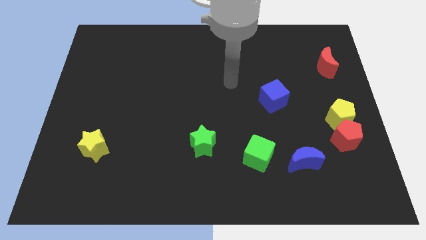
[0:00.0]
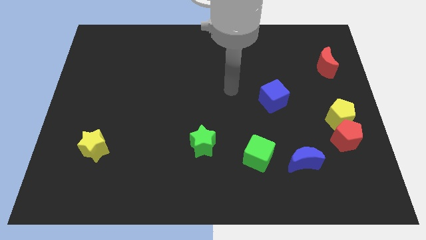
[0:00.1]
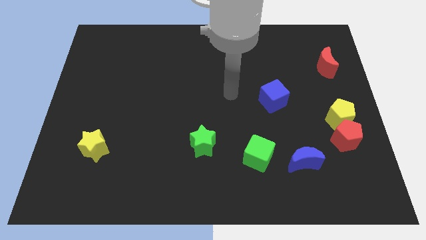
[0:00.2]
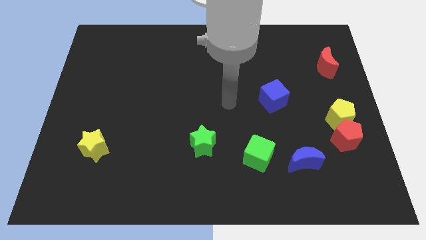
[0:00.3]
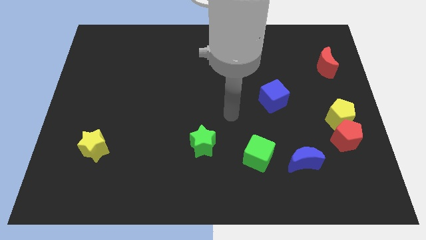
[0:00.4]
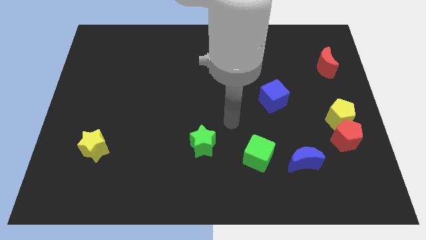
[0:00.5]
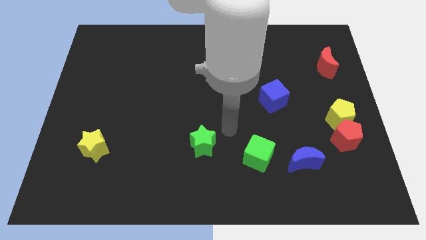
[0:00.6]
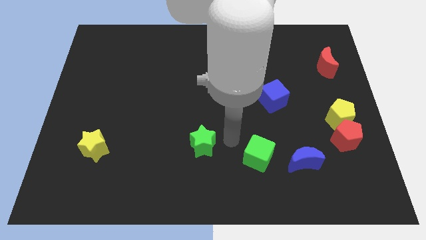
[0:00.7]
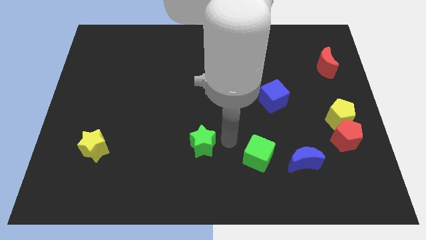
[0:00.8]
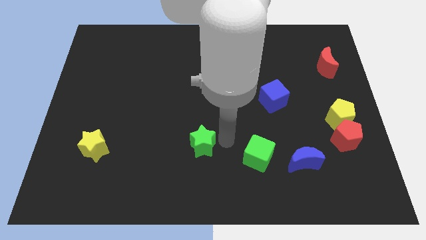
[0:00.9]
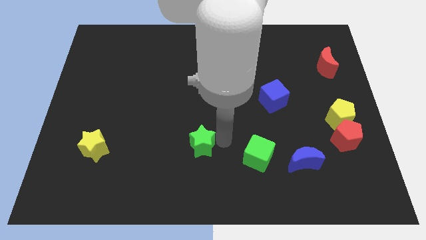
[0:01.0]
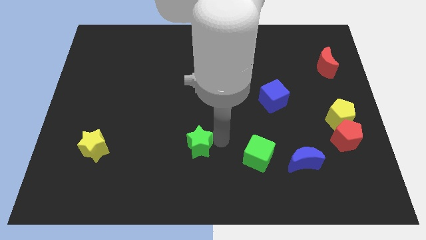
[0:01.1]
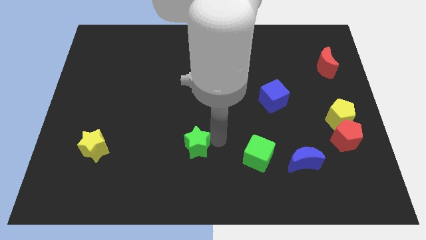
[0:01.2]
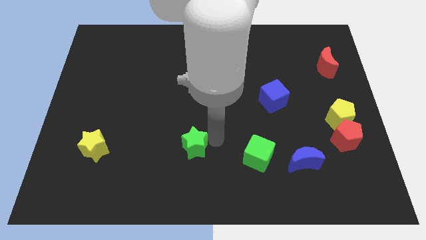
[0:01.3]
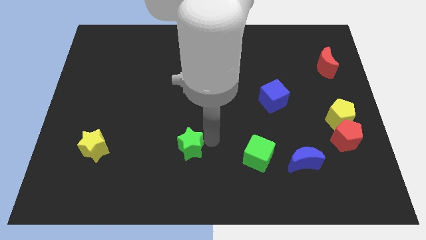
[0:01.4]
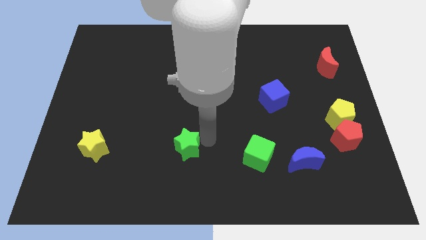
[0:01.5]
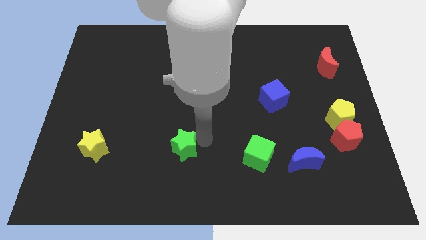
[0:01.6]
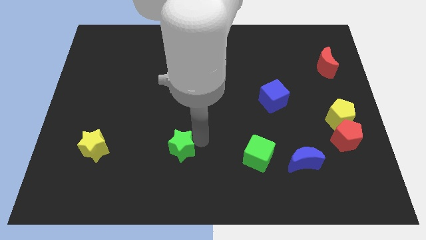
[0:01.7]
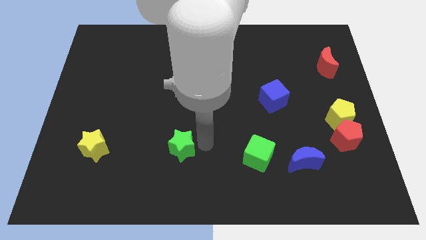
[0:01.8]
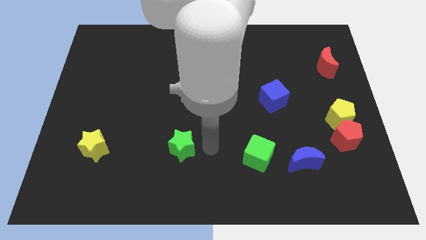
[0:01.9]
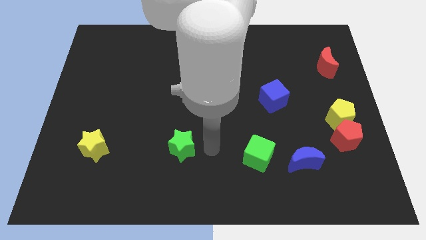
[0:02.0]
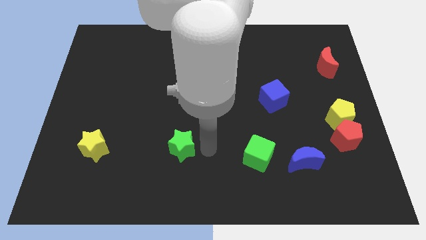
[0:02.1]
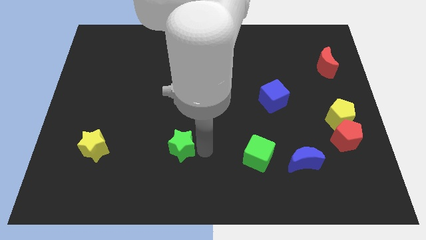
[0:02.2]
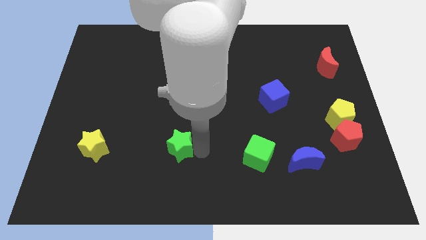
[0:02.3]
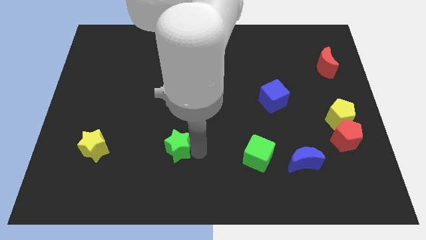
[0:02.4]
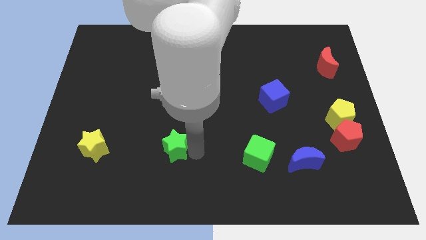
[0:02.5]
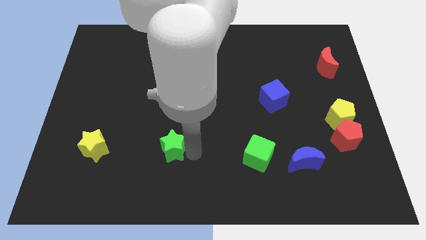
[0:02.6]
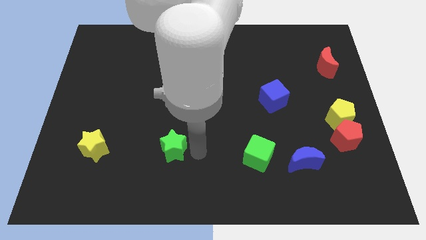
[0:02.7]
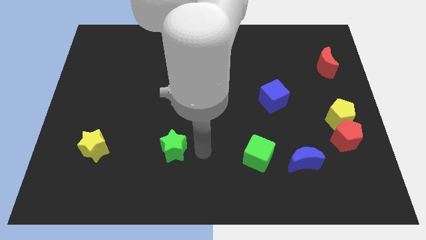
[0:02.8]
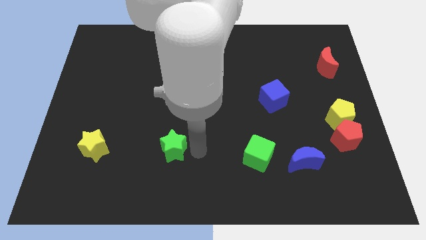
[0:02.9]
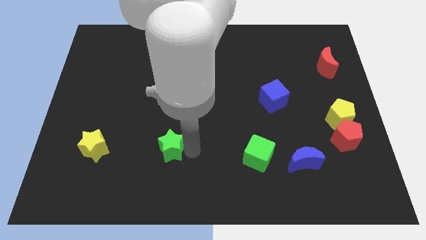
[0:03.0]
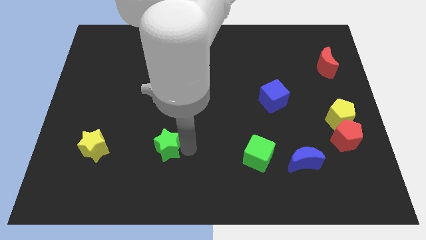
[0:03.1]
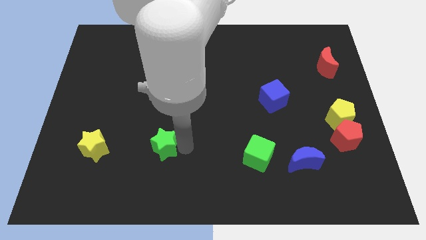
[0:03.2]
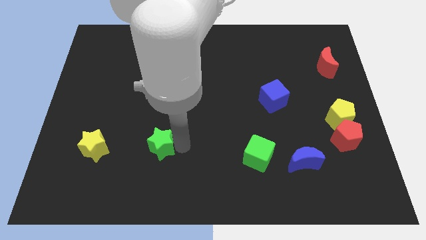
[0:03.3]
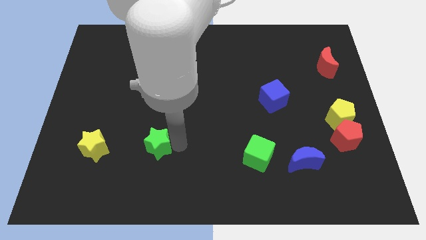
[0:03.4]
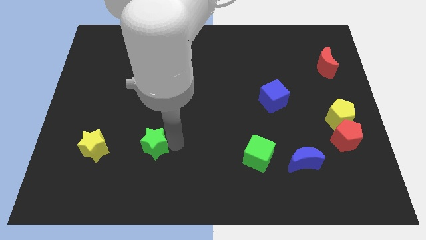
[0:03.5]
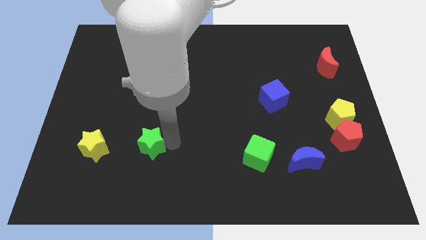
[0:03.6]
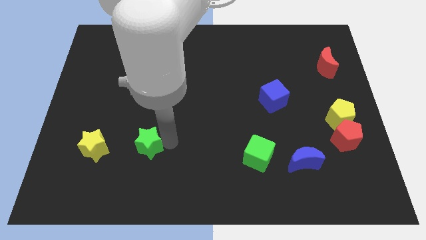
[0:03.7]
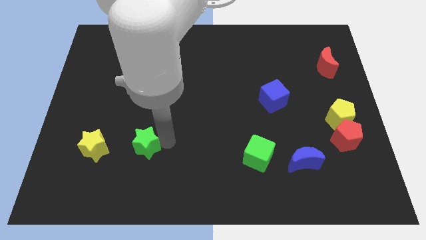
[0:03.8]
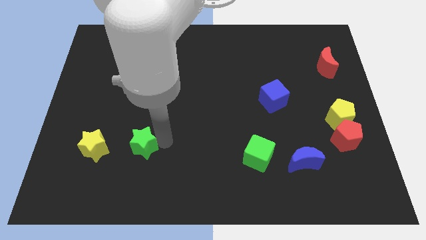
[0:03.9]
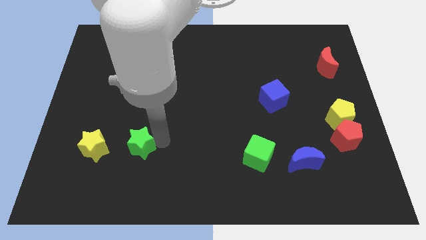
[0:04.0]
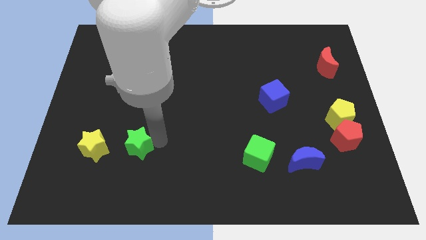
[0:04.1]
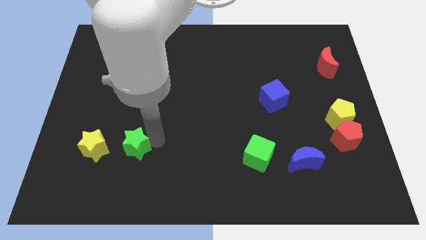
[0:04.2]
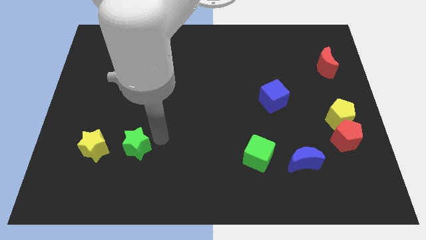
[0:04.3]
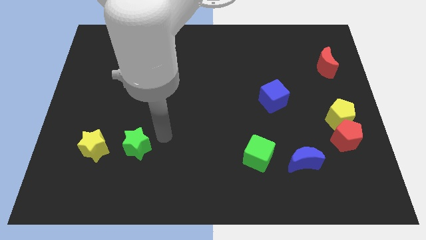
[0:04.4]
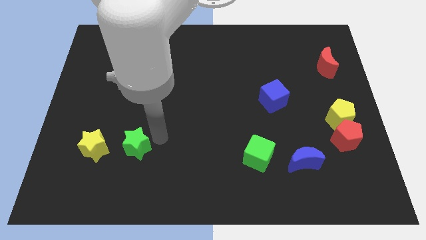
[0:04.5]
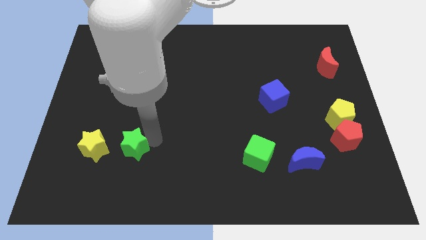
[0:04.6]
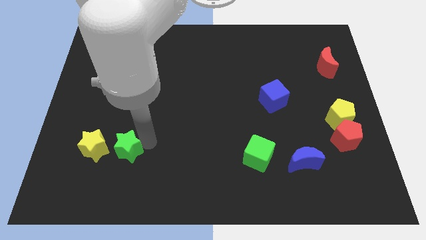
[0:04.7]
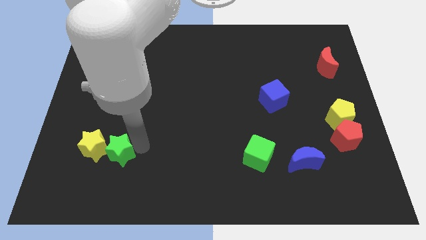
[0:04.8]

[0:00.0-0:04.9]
slide the green star next to the yellow star

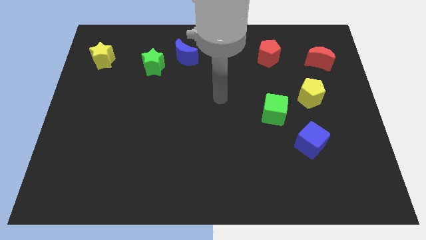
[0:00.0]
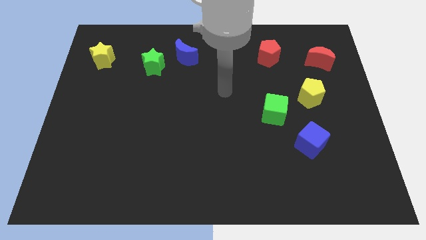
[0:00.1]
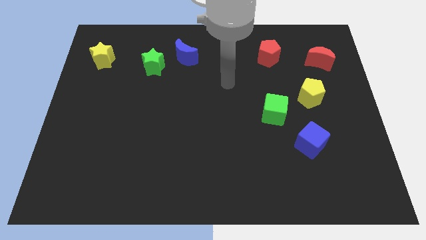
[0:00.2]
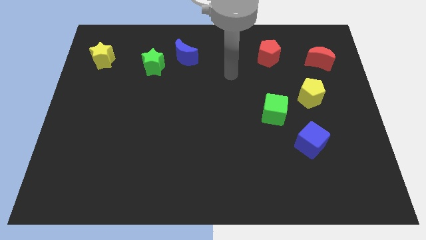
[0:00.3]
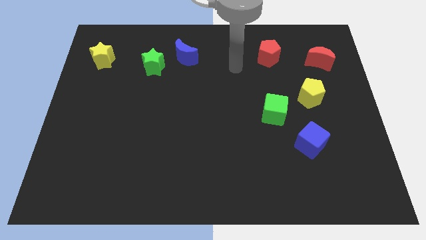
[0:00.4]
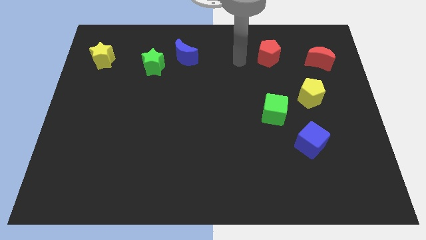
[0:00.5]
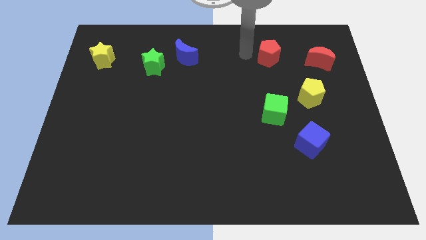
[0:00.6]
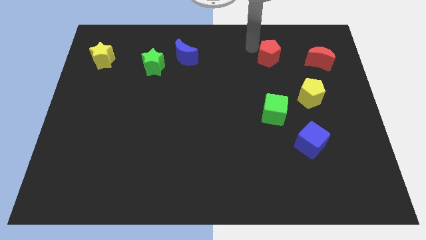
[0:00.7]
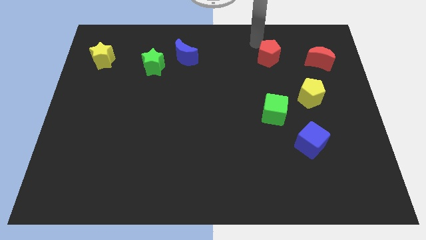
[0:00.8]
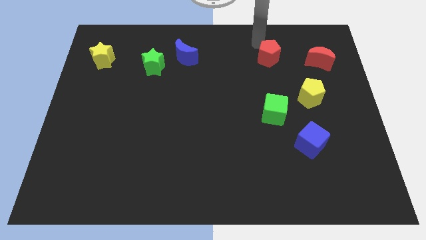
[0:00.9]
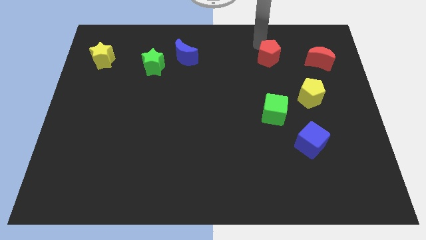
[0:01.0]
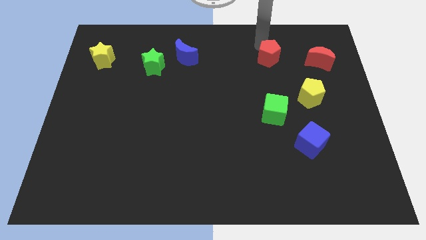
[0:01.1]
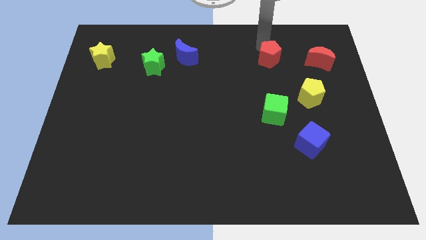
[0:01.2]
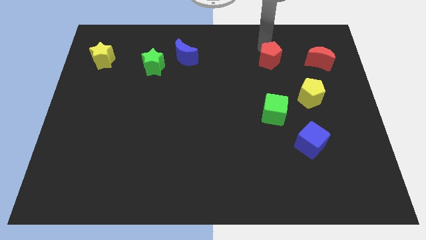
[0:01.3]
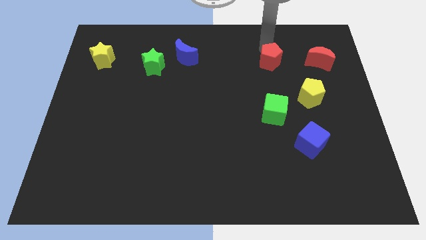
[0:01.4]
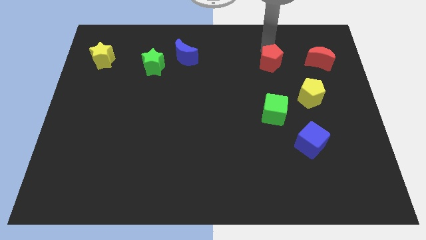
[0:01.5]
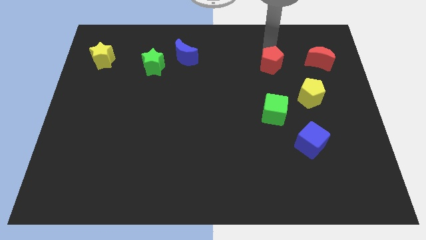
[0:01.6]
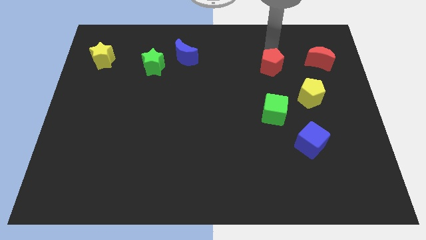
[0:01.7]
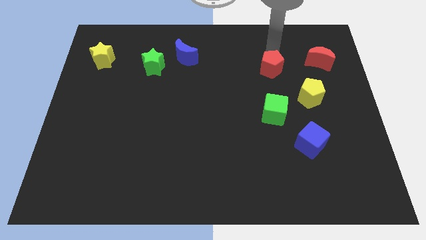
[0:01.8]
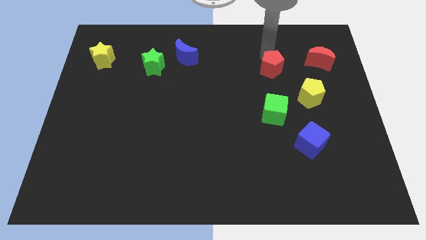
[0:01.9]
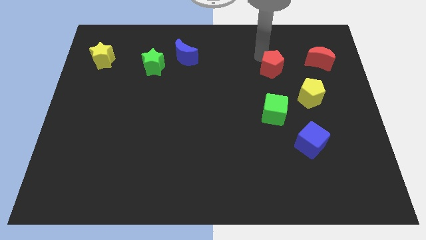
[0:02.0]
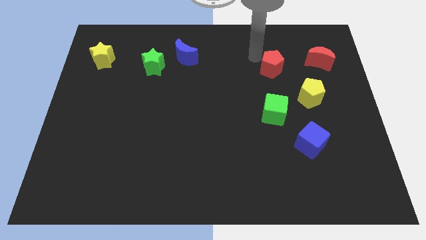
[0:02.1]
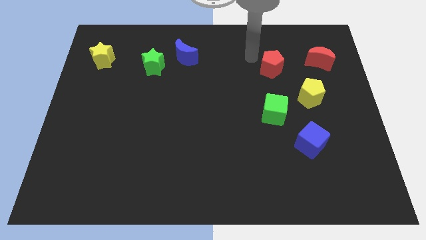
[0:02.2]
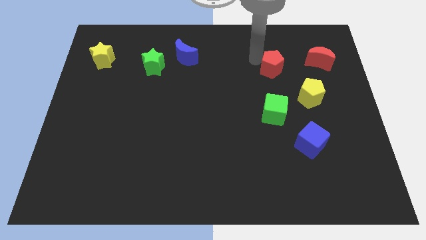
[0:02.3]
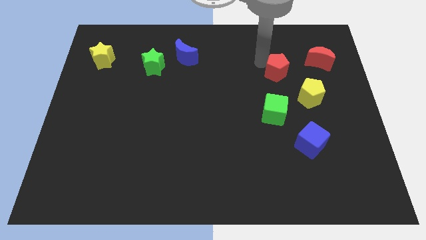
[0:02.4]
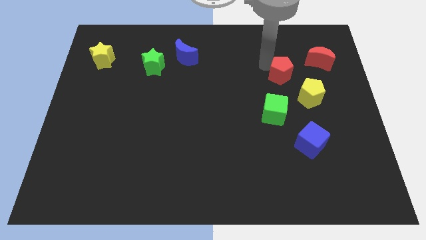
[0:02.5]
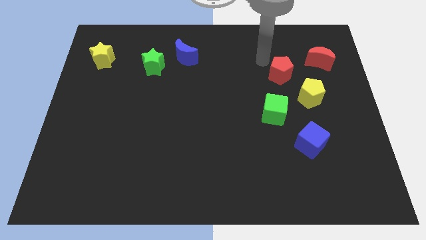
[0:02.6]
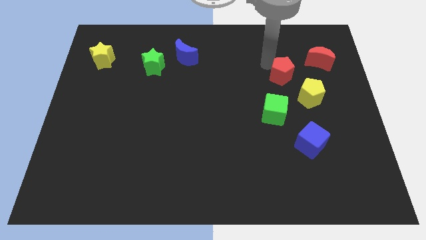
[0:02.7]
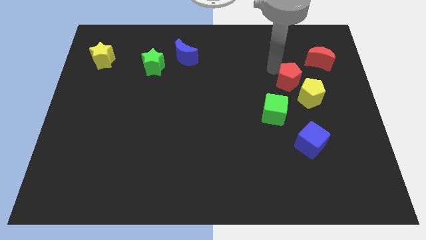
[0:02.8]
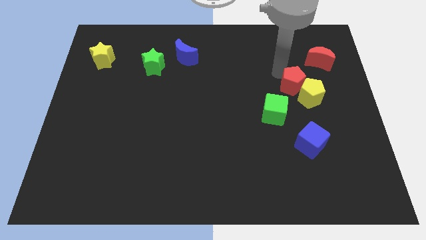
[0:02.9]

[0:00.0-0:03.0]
slide the red pentagon next to the yellow pentagon
